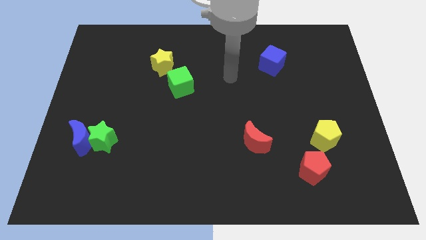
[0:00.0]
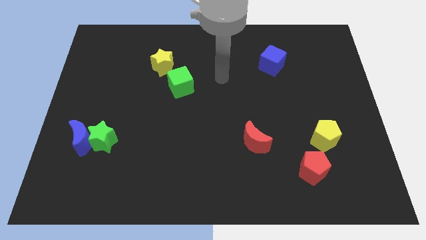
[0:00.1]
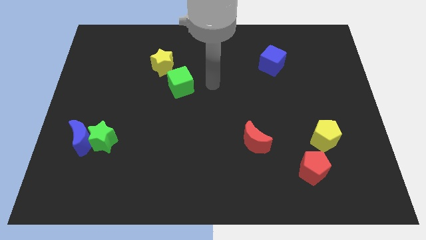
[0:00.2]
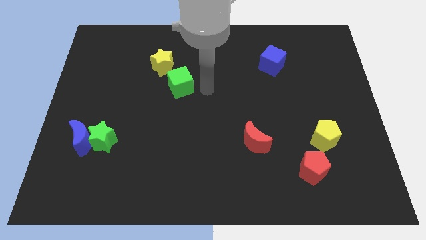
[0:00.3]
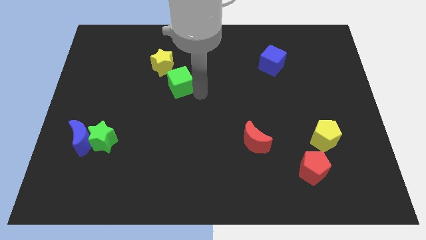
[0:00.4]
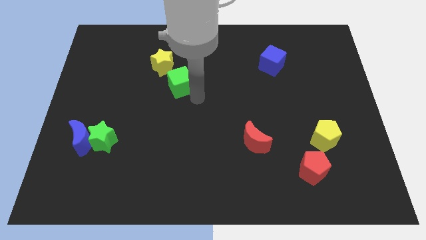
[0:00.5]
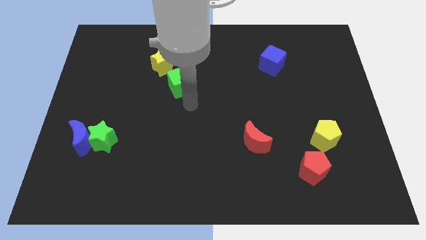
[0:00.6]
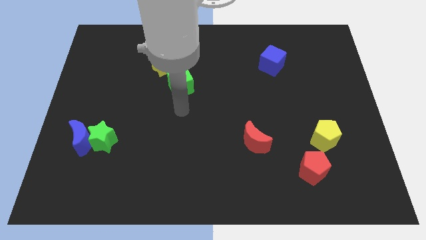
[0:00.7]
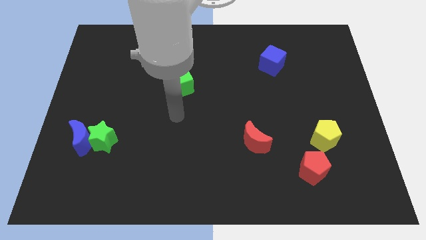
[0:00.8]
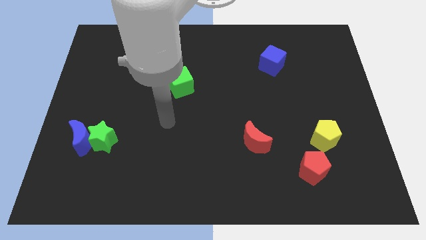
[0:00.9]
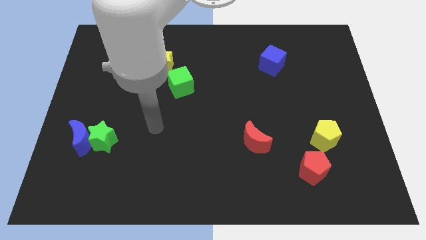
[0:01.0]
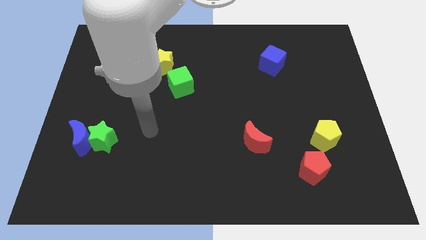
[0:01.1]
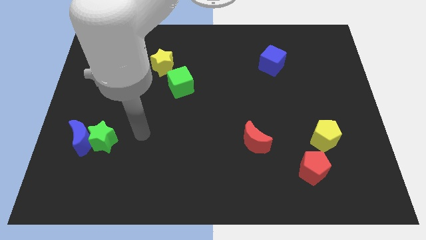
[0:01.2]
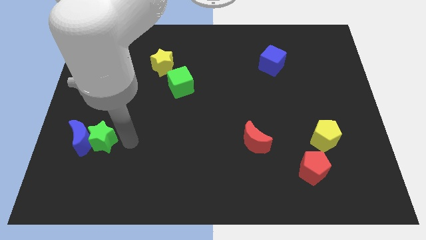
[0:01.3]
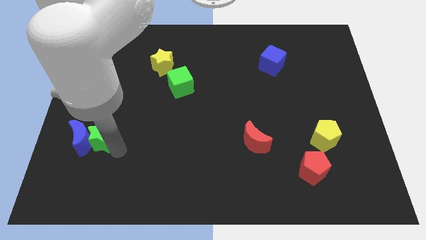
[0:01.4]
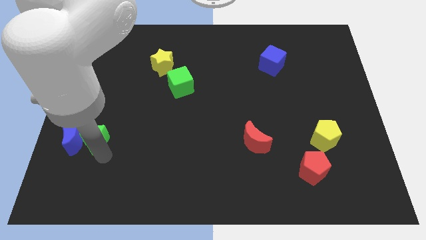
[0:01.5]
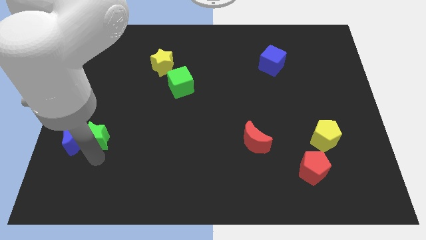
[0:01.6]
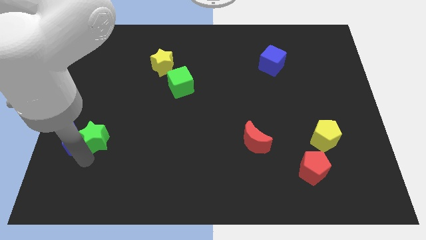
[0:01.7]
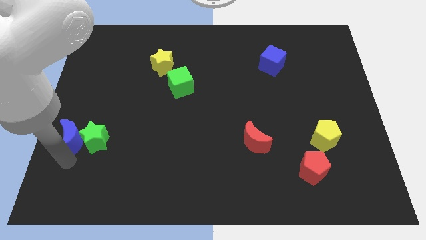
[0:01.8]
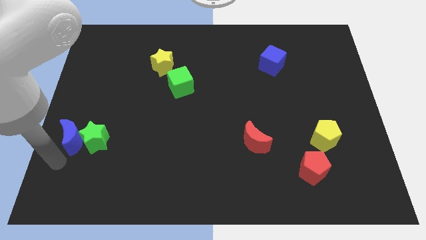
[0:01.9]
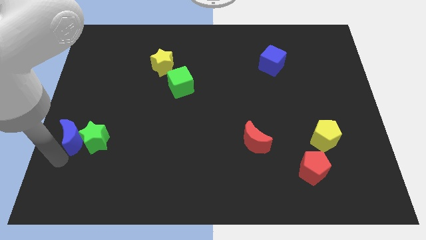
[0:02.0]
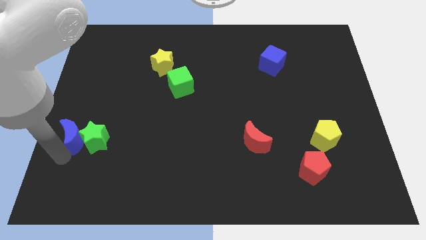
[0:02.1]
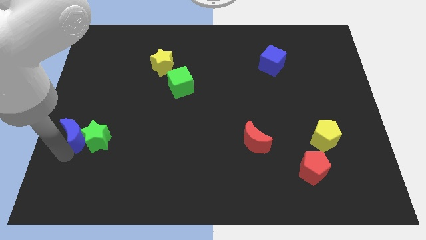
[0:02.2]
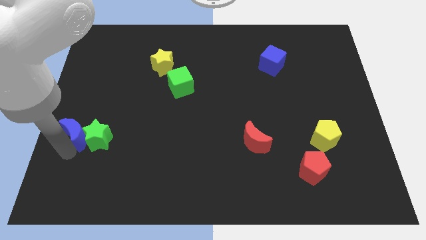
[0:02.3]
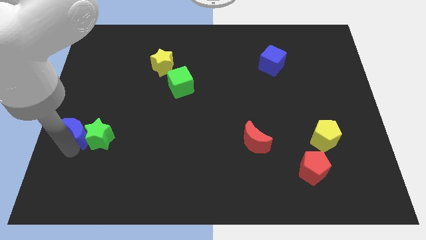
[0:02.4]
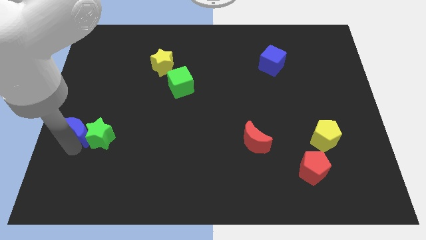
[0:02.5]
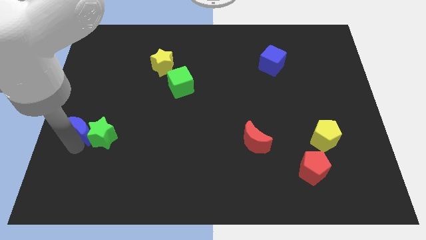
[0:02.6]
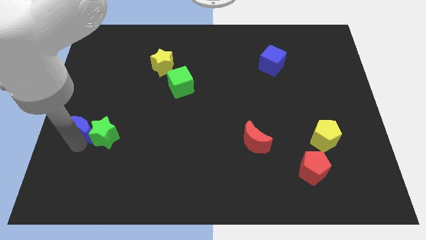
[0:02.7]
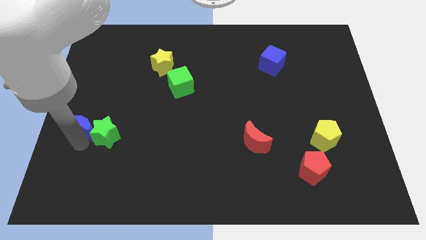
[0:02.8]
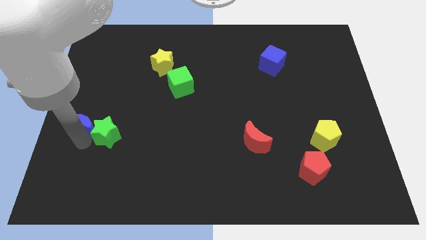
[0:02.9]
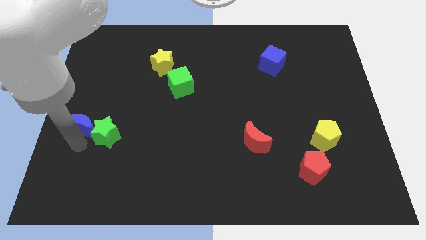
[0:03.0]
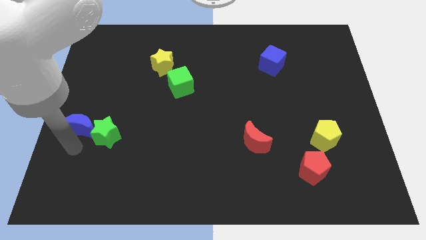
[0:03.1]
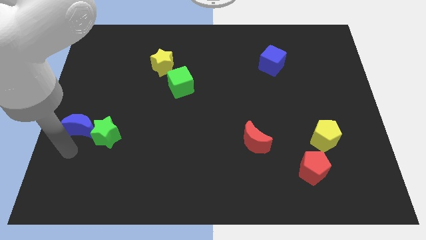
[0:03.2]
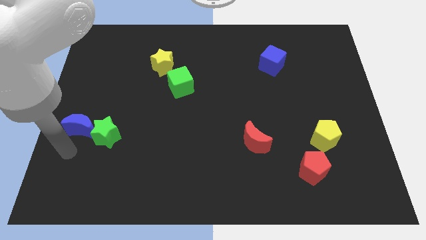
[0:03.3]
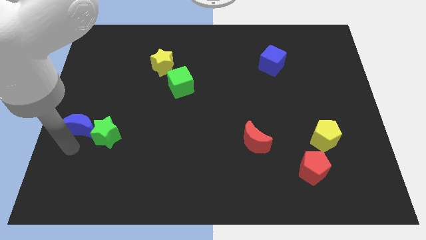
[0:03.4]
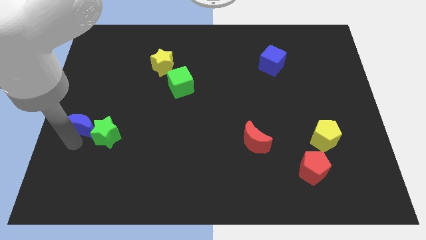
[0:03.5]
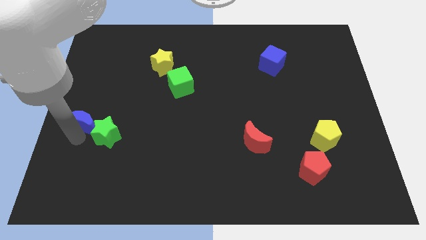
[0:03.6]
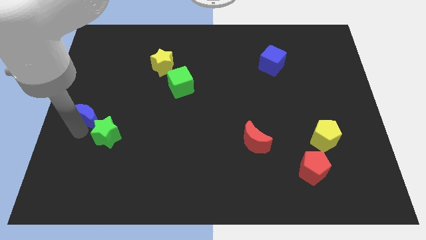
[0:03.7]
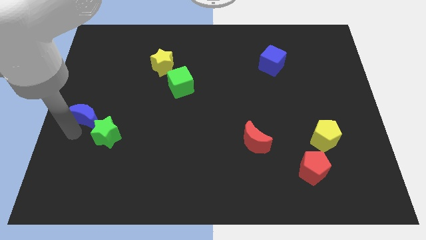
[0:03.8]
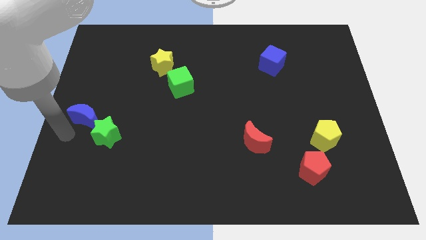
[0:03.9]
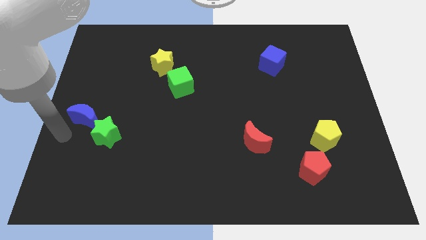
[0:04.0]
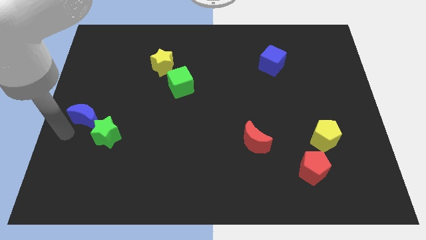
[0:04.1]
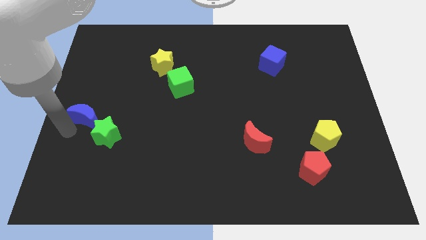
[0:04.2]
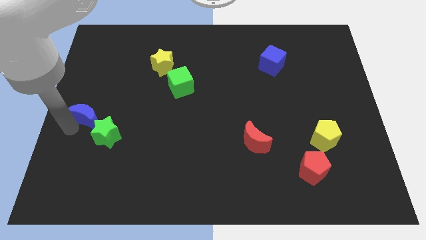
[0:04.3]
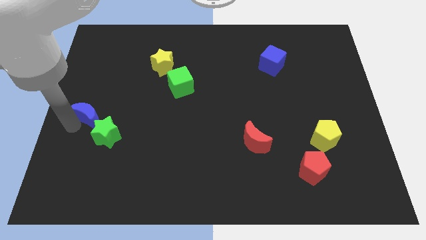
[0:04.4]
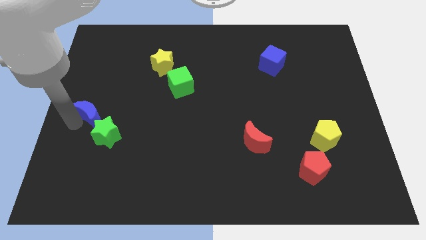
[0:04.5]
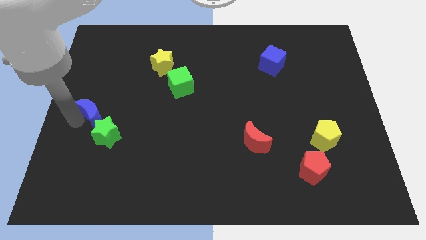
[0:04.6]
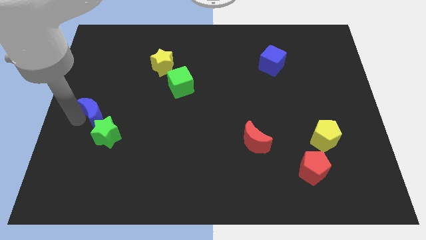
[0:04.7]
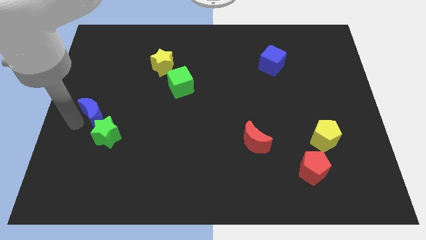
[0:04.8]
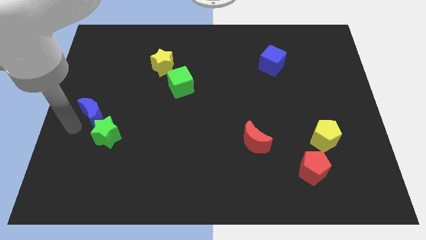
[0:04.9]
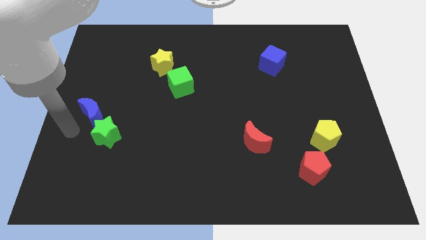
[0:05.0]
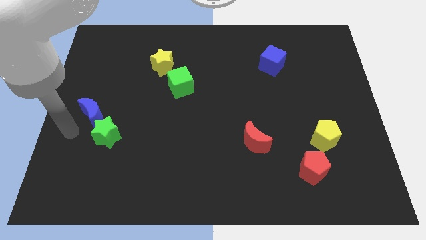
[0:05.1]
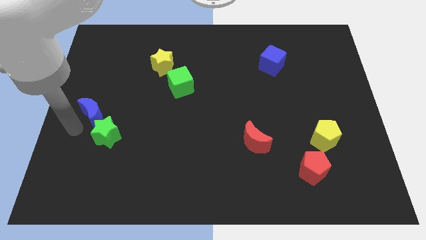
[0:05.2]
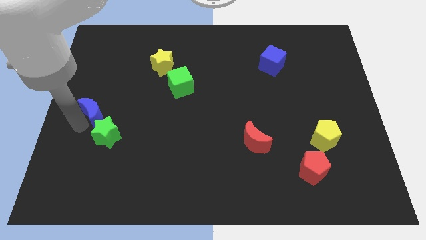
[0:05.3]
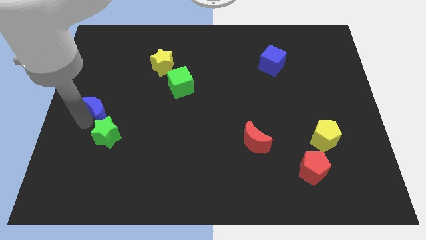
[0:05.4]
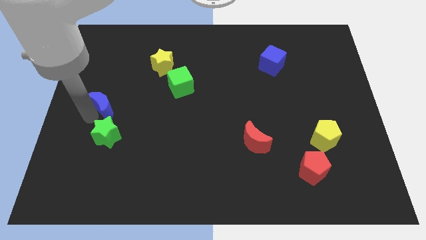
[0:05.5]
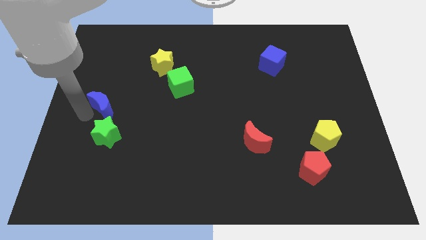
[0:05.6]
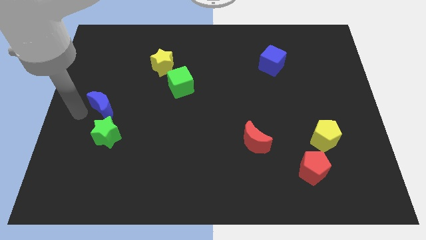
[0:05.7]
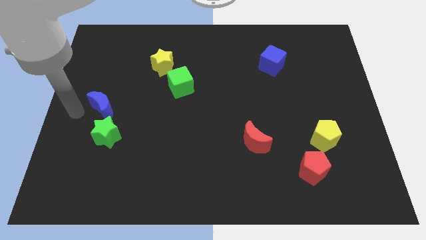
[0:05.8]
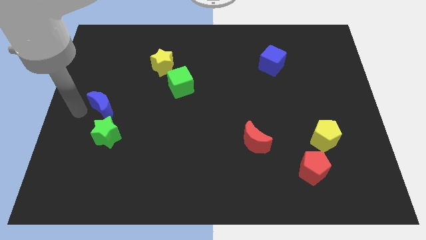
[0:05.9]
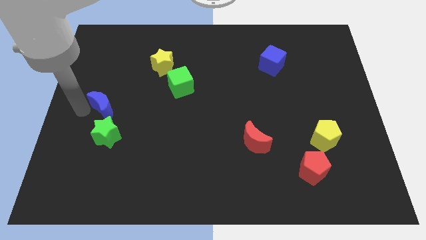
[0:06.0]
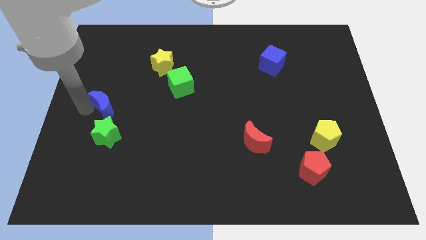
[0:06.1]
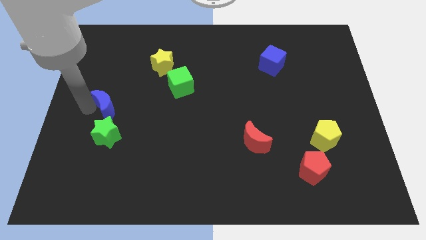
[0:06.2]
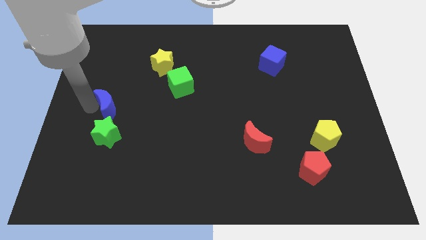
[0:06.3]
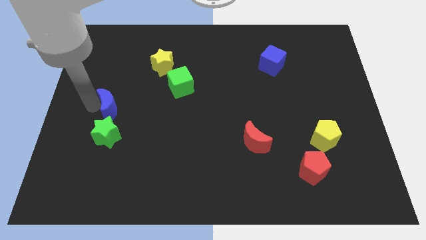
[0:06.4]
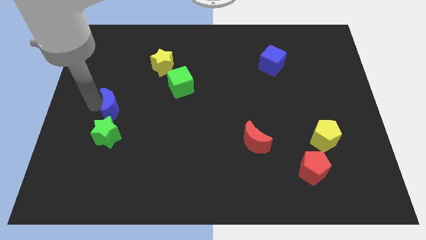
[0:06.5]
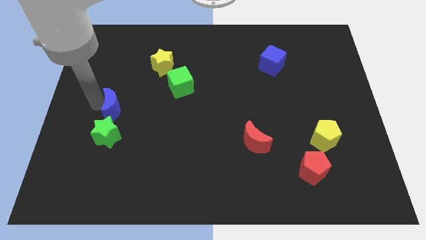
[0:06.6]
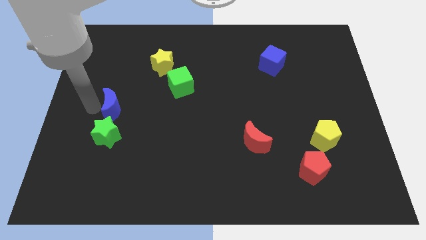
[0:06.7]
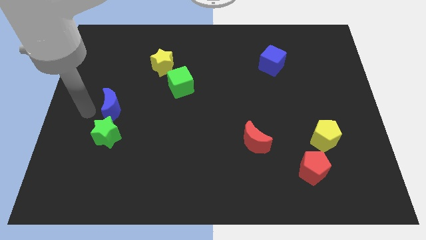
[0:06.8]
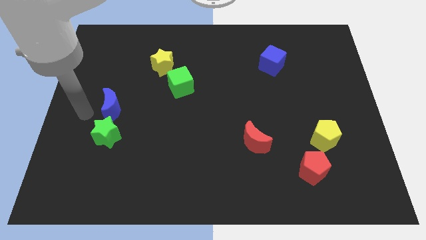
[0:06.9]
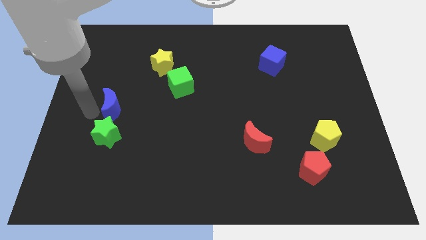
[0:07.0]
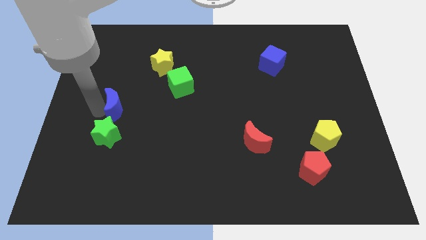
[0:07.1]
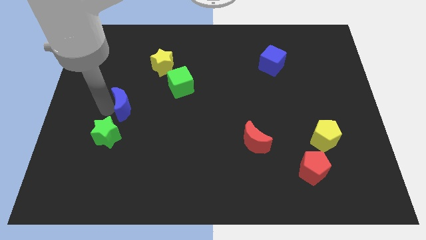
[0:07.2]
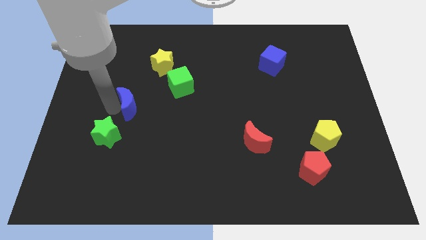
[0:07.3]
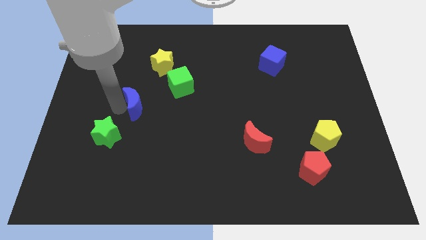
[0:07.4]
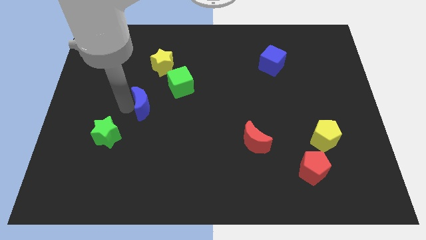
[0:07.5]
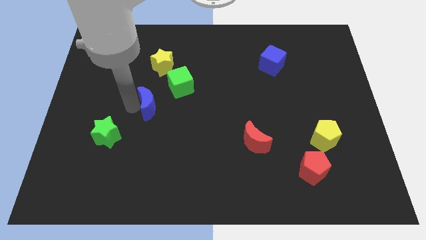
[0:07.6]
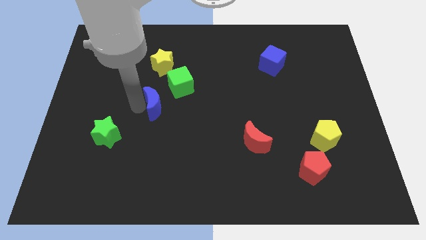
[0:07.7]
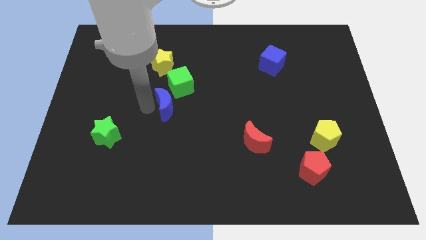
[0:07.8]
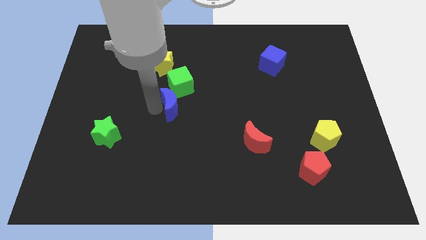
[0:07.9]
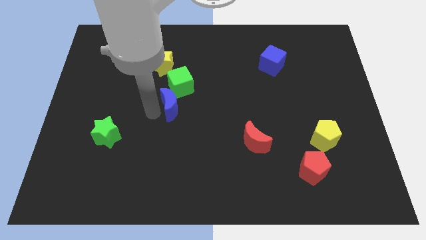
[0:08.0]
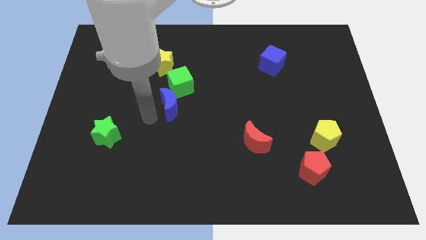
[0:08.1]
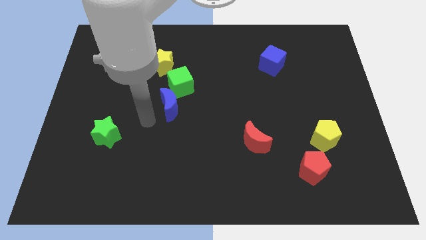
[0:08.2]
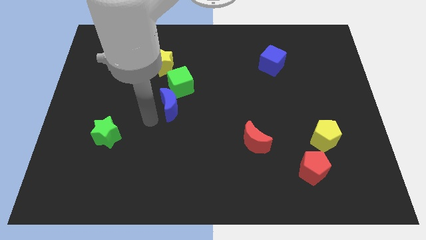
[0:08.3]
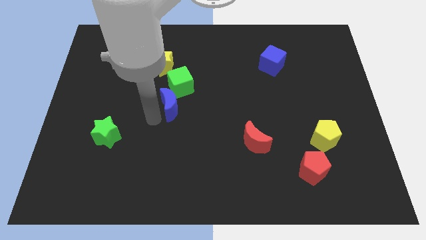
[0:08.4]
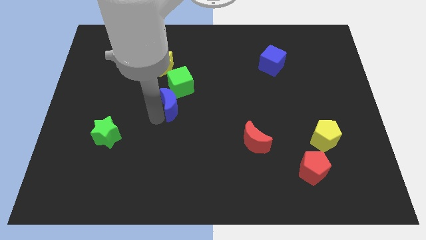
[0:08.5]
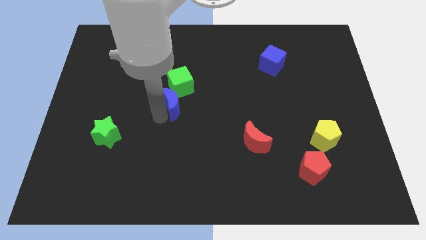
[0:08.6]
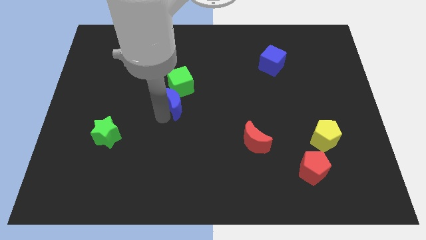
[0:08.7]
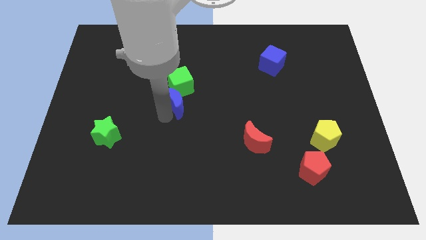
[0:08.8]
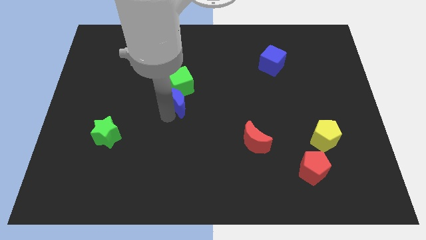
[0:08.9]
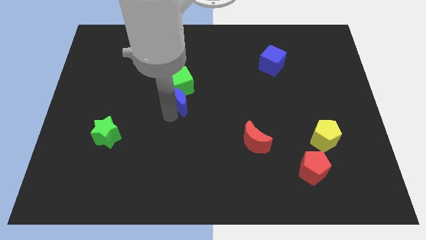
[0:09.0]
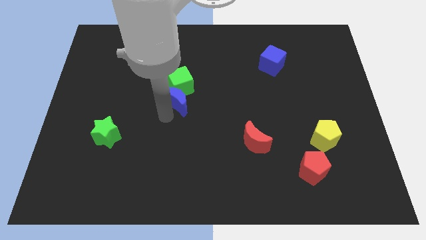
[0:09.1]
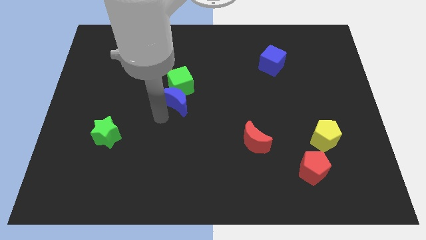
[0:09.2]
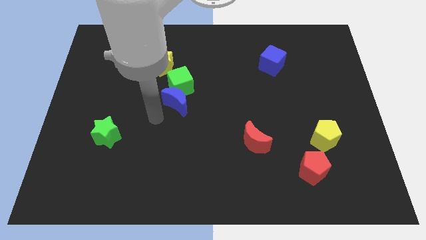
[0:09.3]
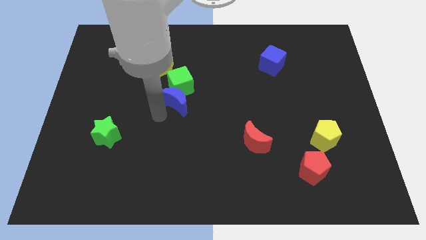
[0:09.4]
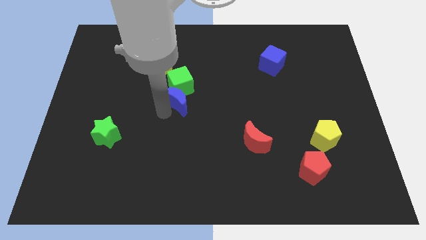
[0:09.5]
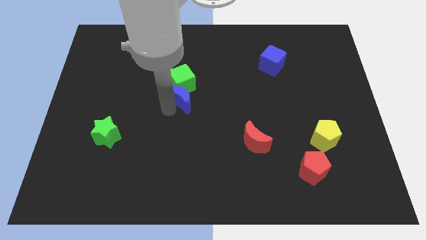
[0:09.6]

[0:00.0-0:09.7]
push the blue moon upwards and right
